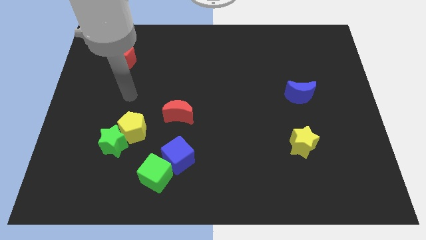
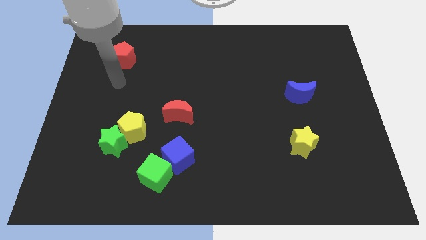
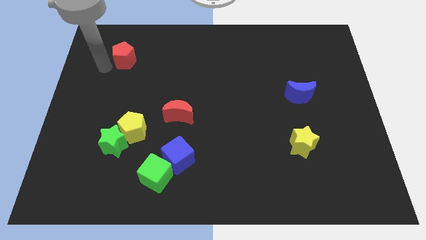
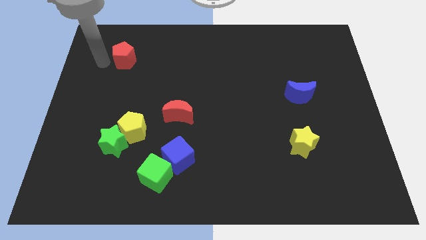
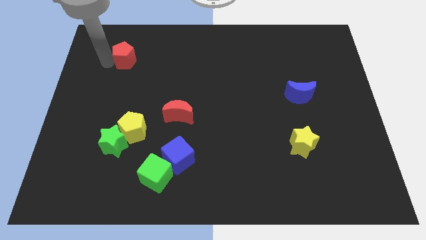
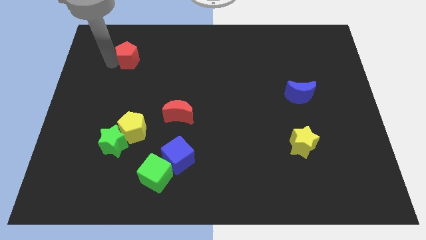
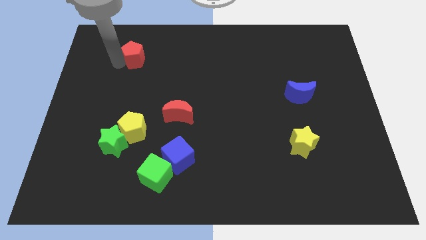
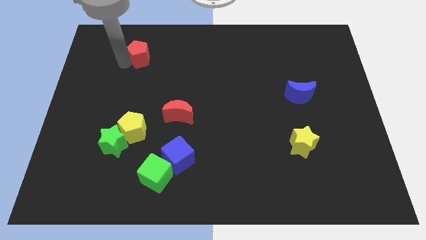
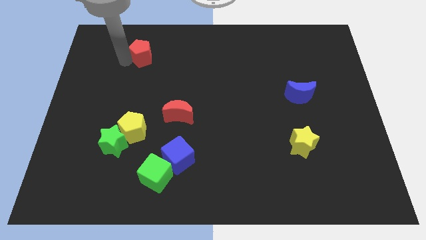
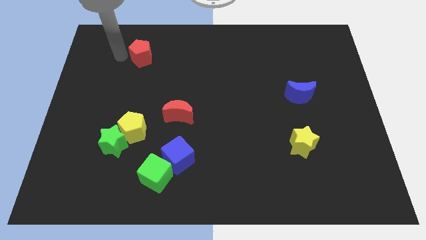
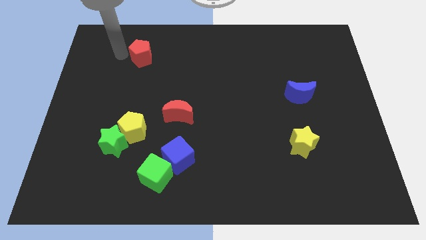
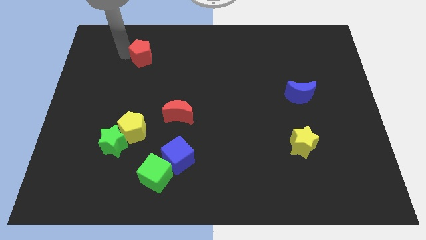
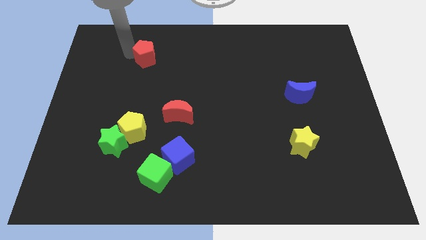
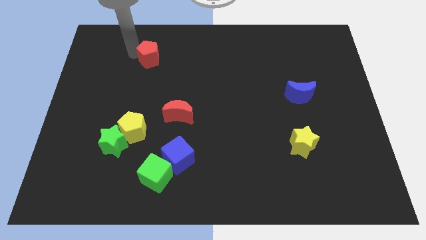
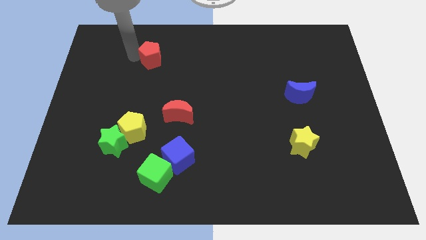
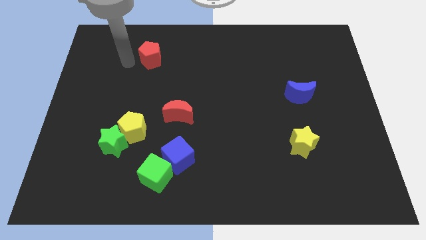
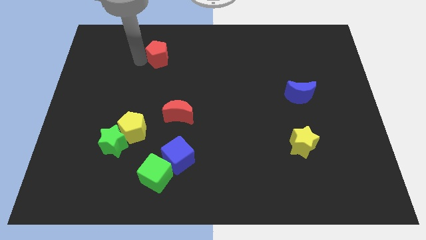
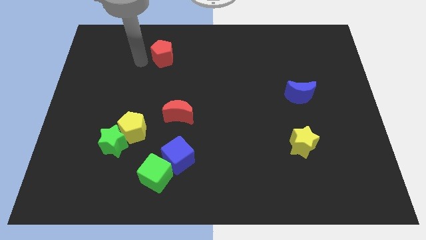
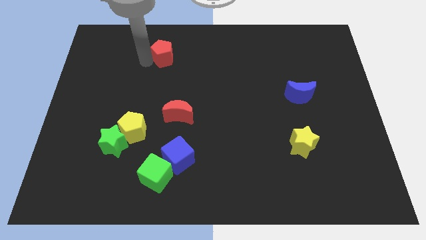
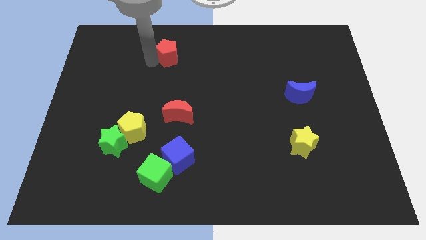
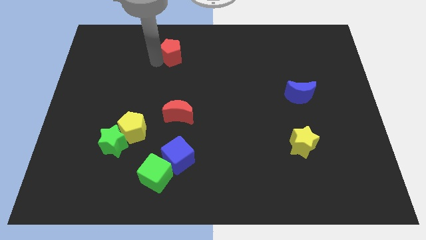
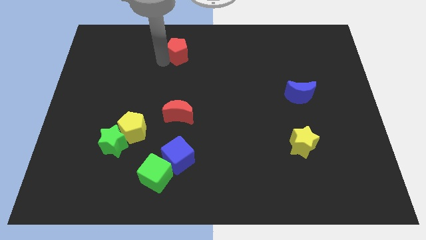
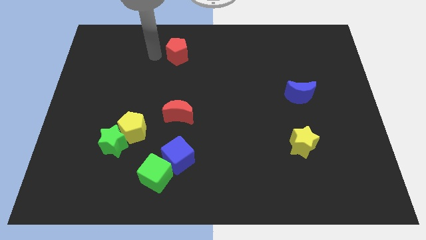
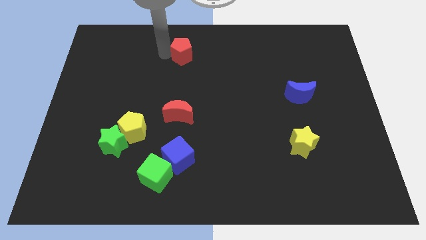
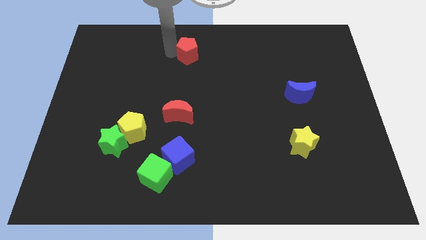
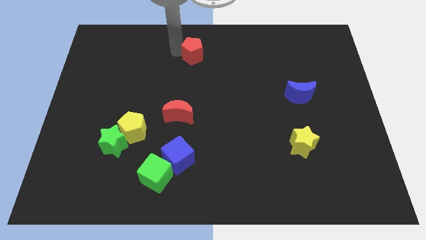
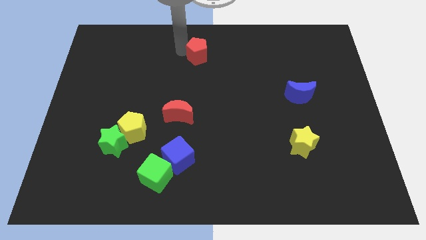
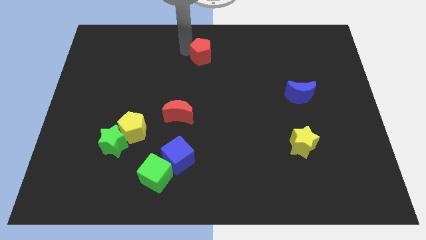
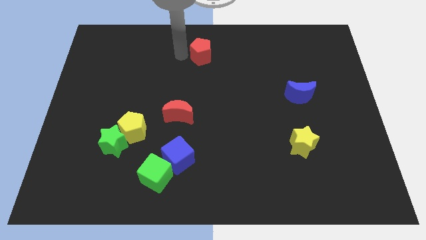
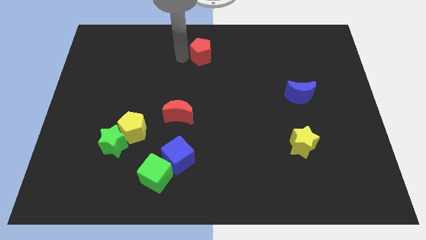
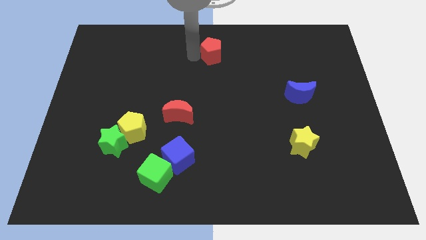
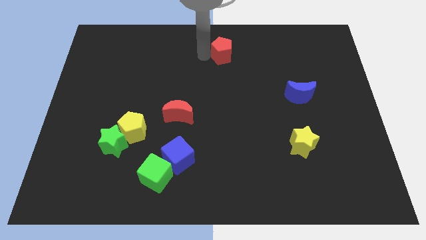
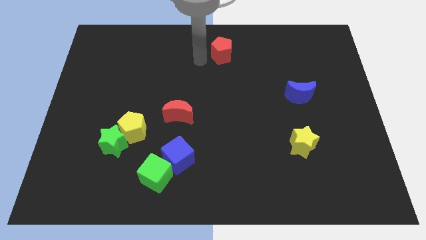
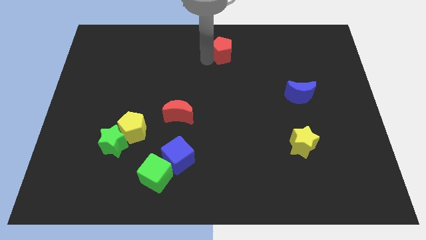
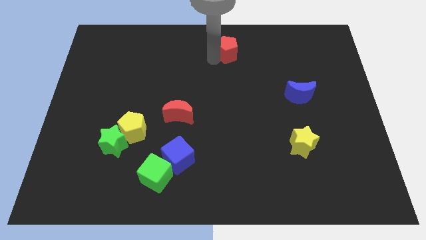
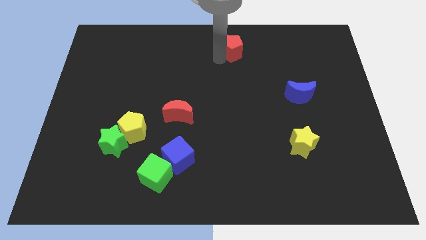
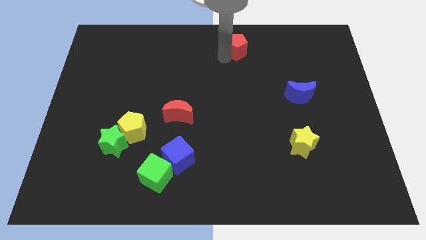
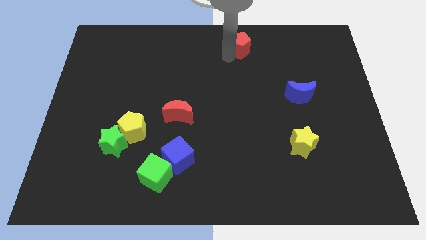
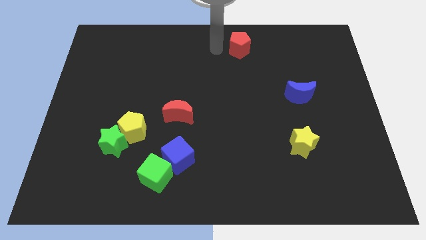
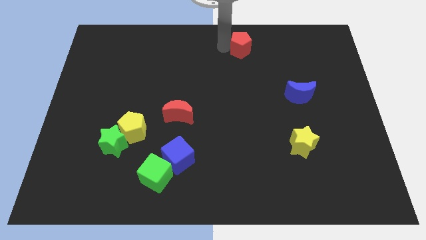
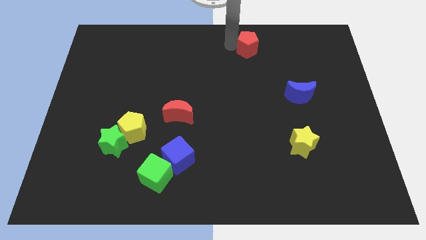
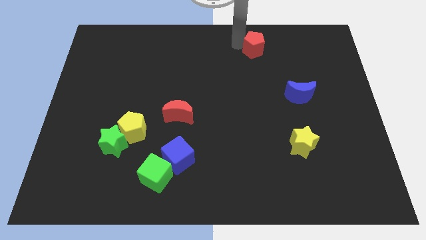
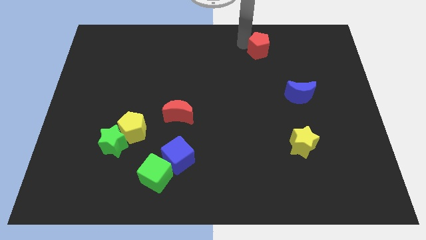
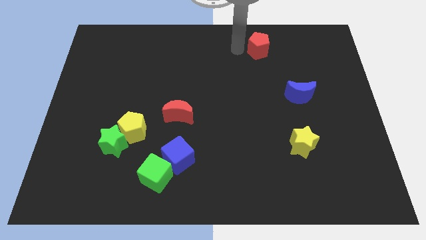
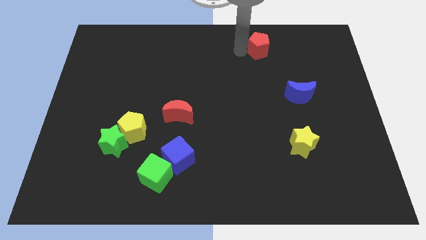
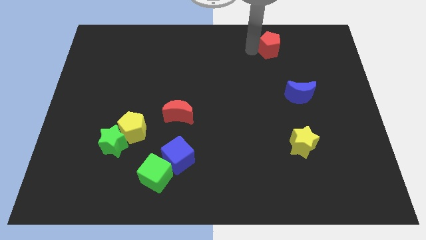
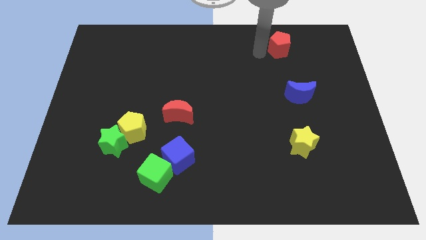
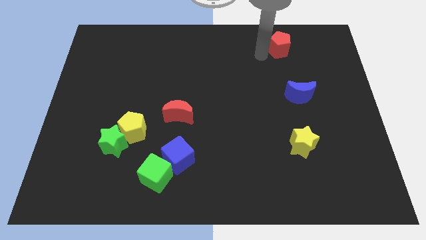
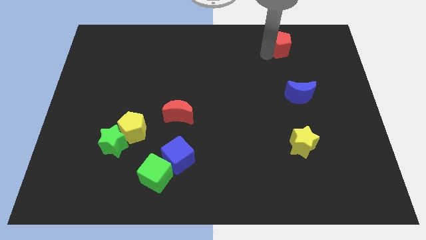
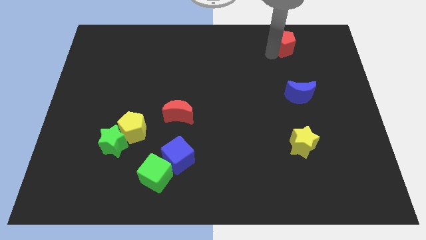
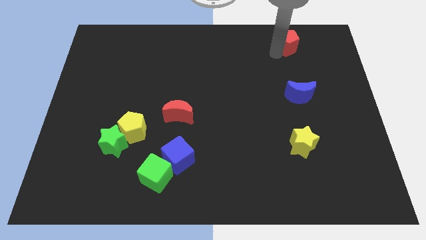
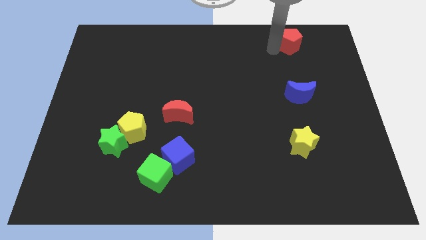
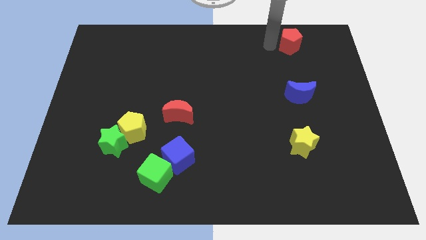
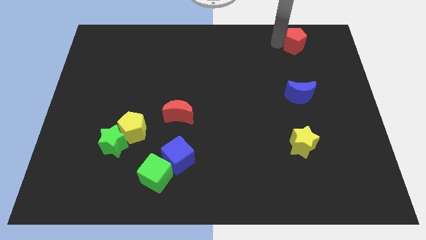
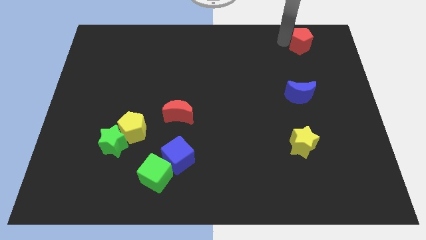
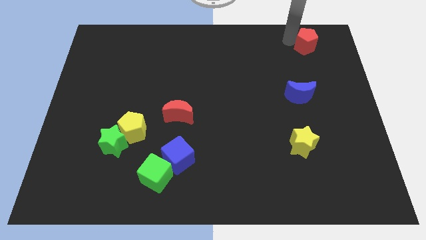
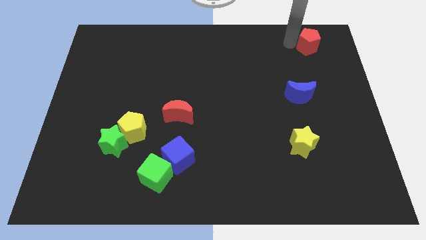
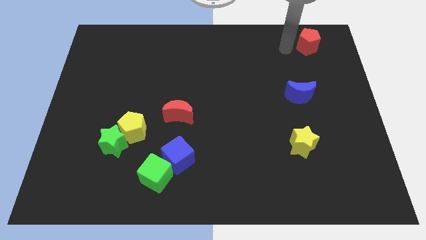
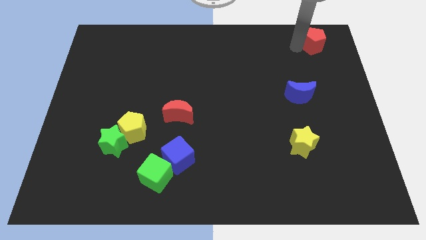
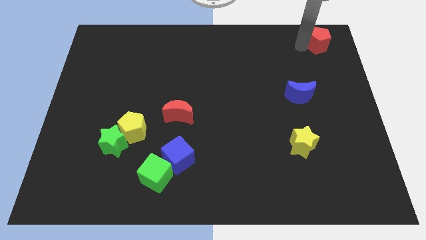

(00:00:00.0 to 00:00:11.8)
move the red pentagon to the top right

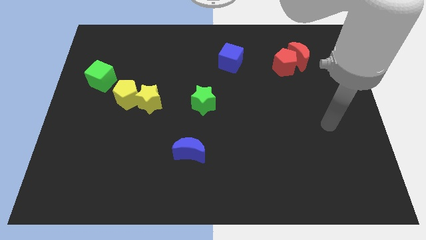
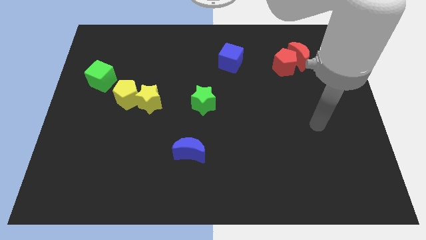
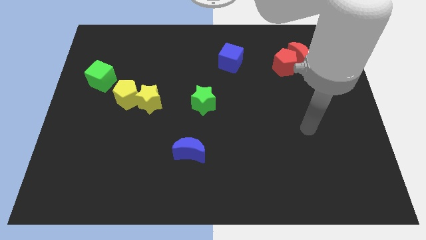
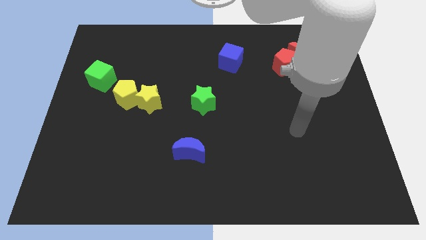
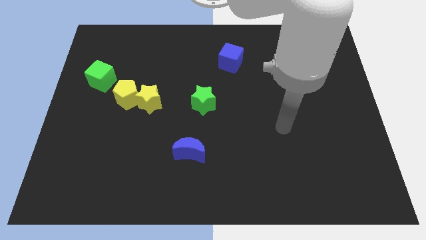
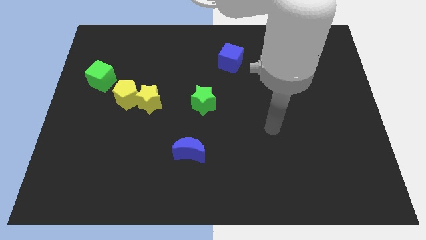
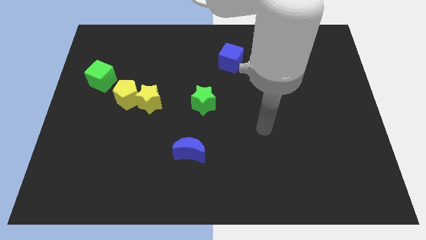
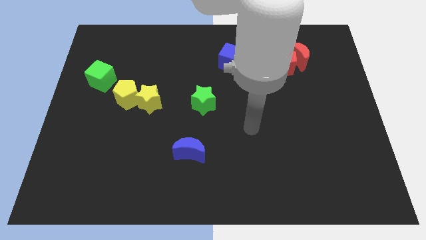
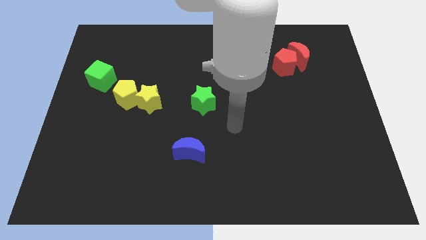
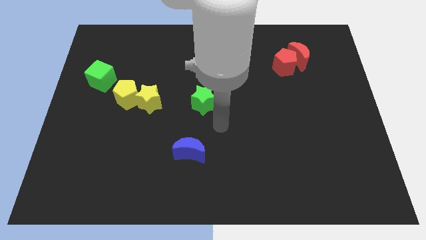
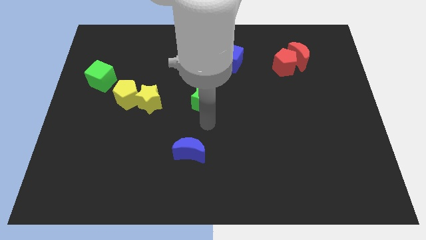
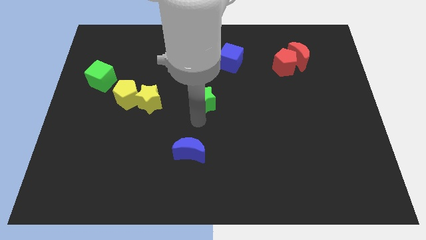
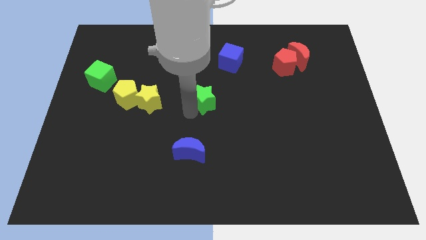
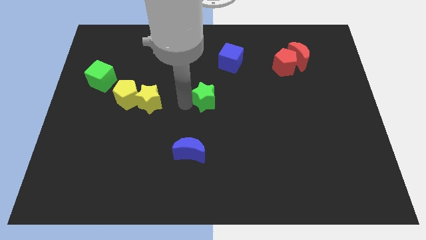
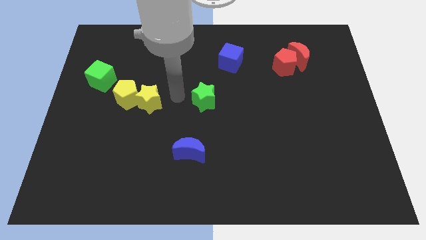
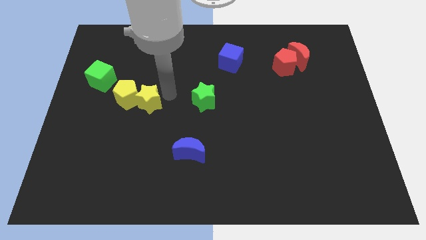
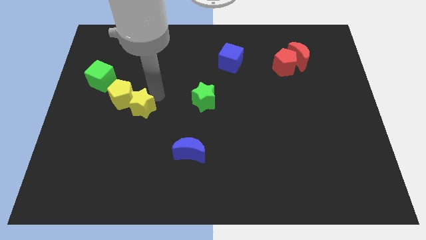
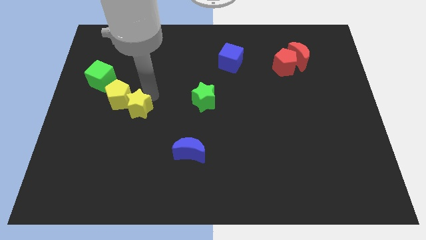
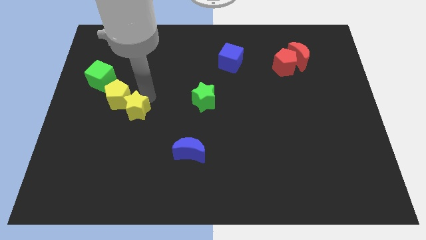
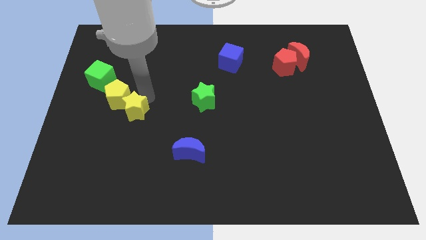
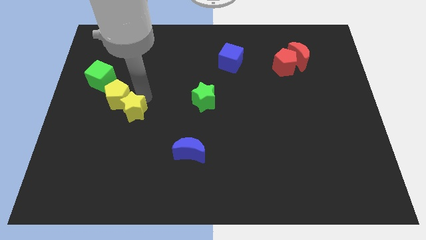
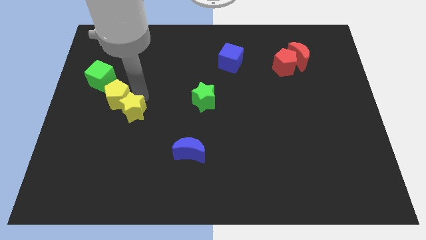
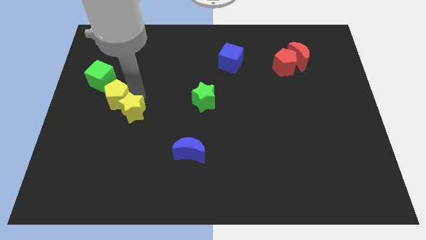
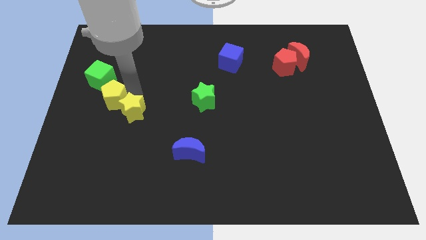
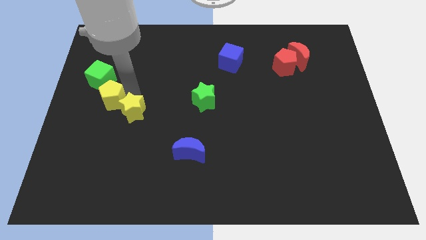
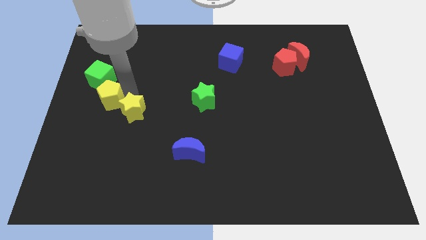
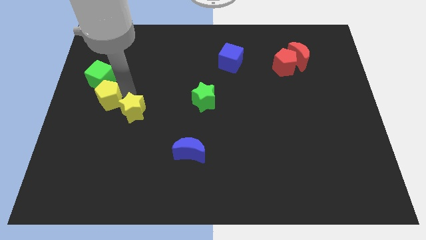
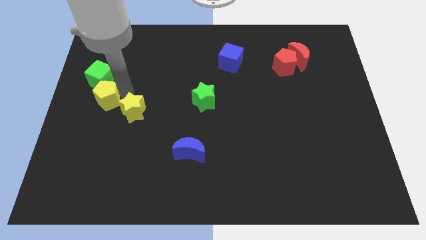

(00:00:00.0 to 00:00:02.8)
move the yellow pentagon to the center left
